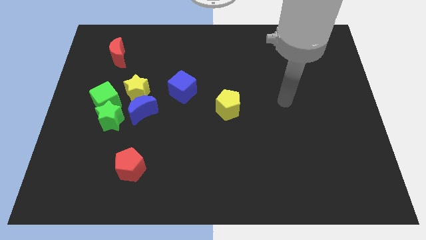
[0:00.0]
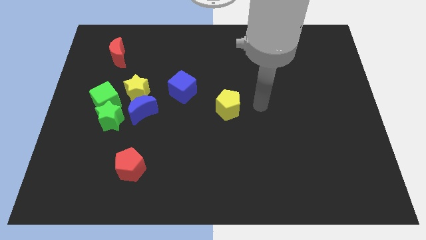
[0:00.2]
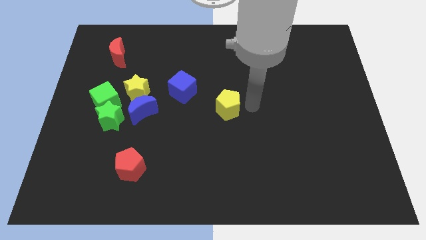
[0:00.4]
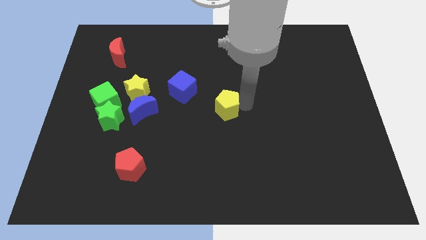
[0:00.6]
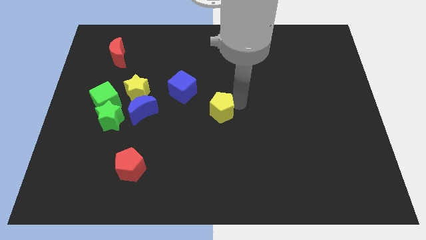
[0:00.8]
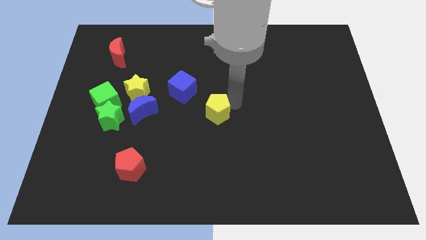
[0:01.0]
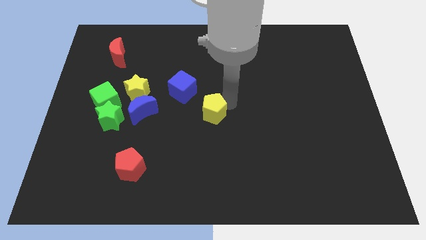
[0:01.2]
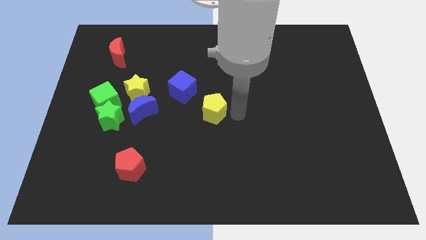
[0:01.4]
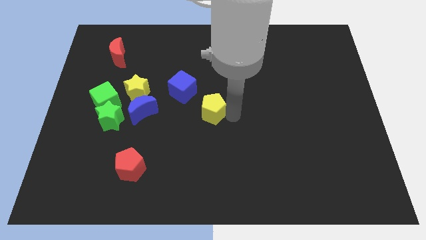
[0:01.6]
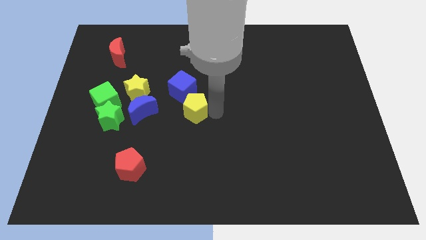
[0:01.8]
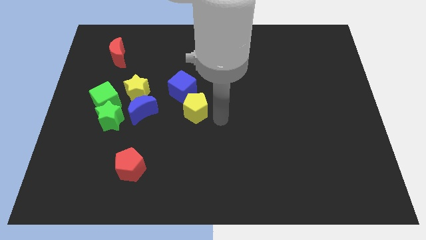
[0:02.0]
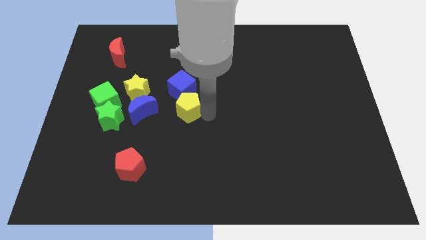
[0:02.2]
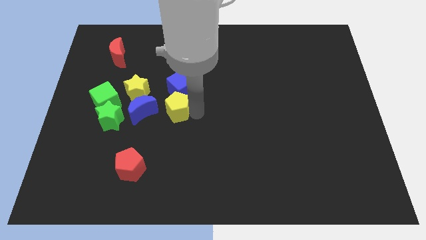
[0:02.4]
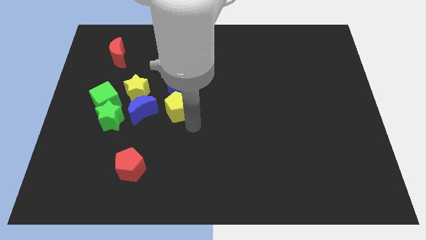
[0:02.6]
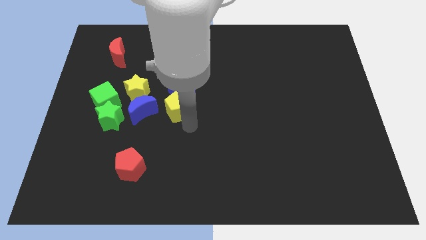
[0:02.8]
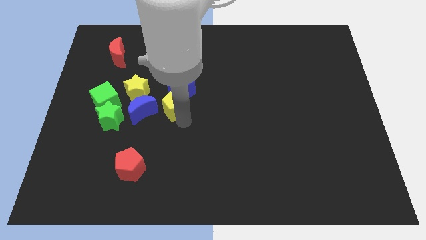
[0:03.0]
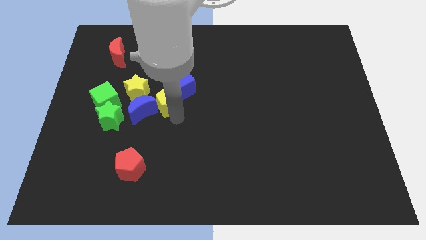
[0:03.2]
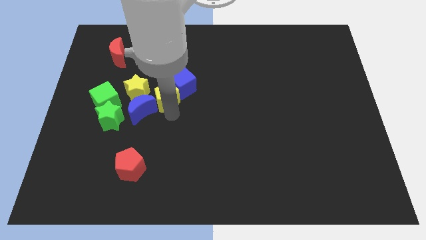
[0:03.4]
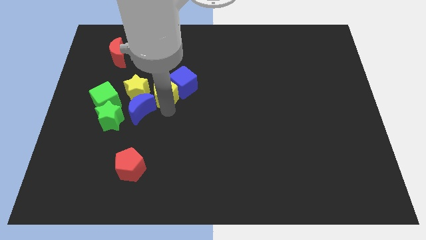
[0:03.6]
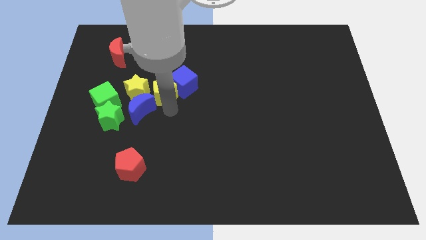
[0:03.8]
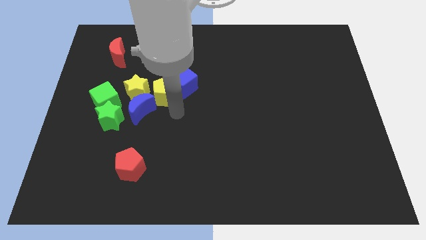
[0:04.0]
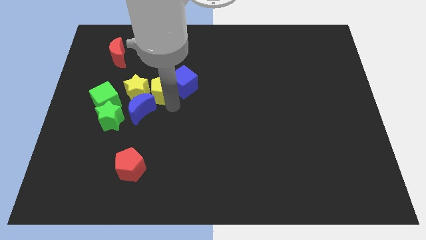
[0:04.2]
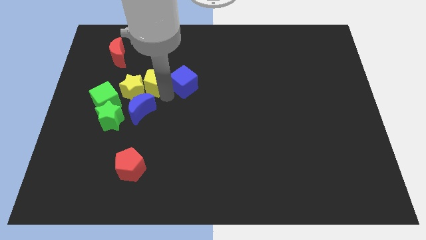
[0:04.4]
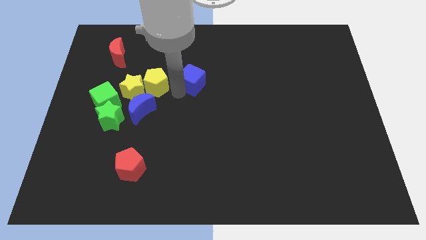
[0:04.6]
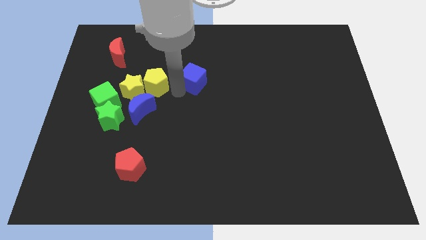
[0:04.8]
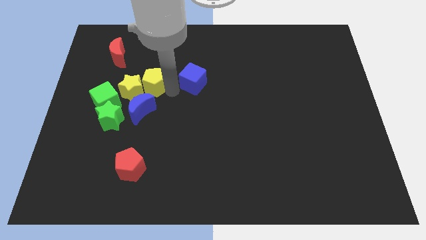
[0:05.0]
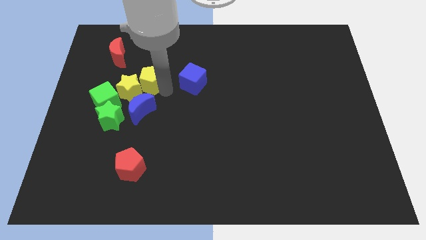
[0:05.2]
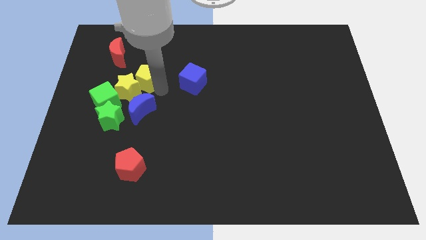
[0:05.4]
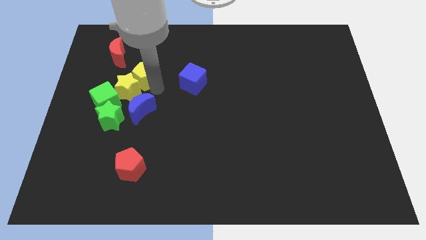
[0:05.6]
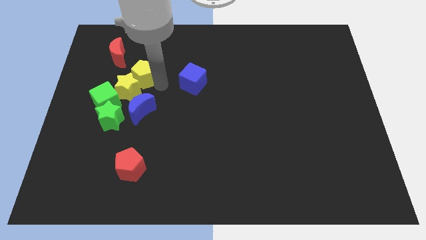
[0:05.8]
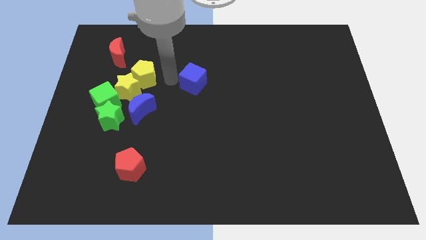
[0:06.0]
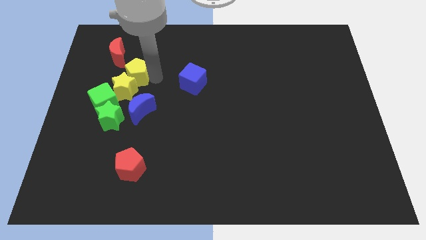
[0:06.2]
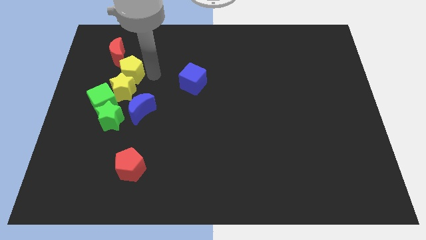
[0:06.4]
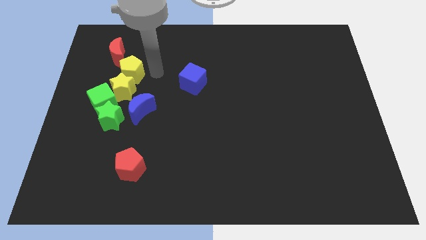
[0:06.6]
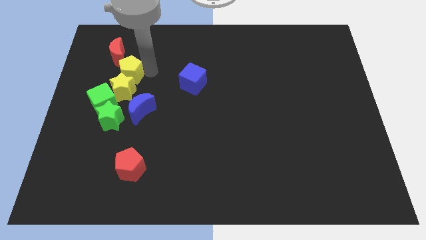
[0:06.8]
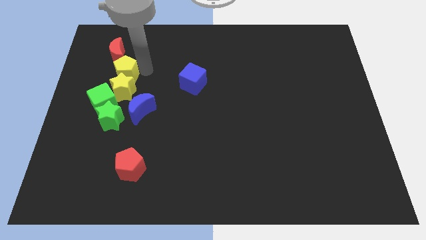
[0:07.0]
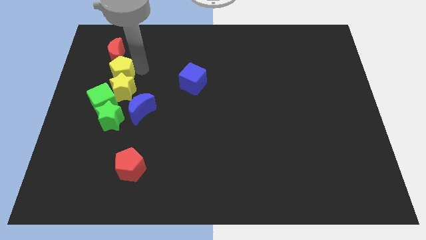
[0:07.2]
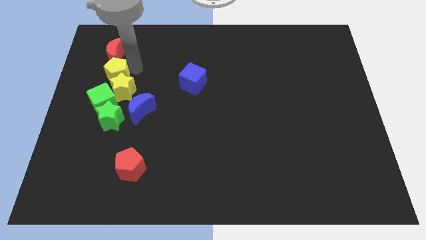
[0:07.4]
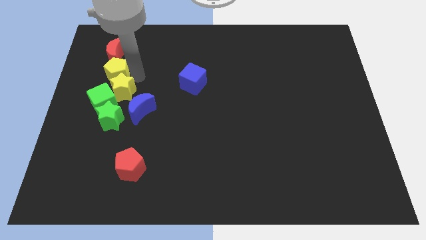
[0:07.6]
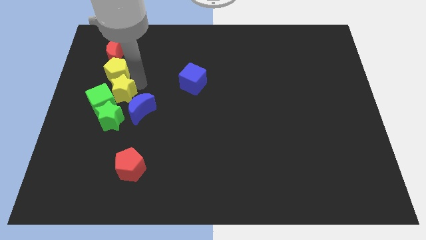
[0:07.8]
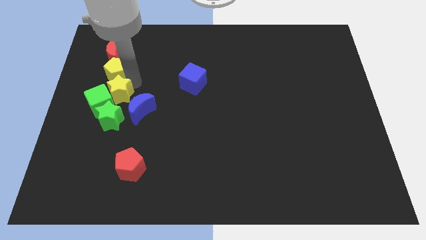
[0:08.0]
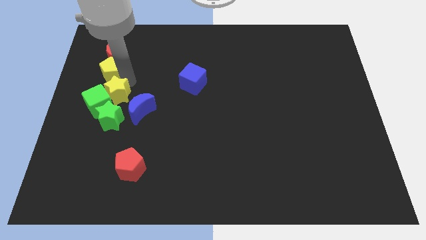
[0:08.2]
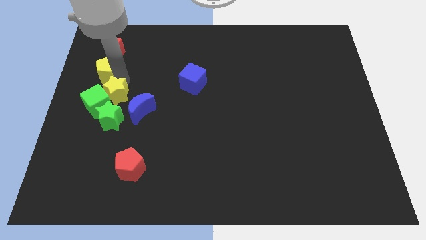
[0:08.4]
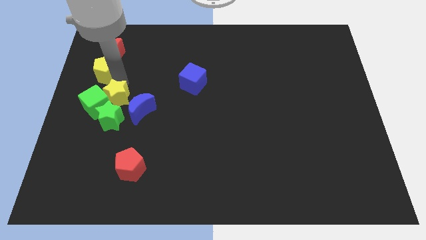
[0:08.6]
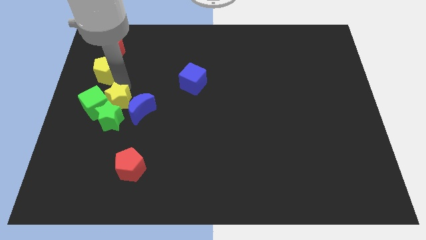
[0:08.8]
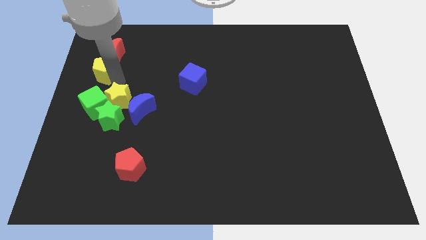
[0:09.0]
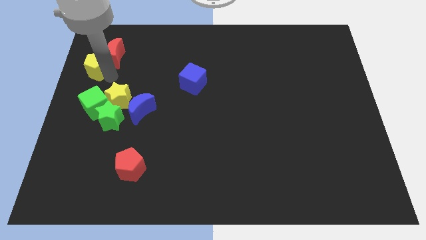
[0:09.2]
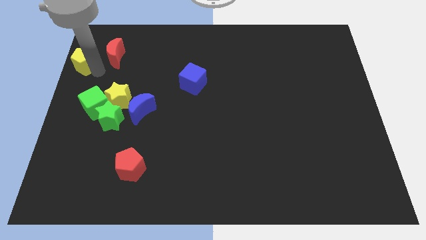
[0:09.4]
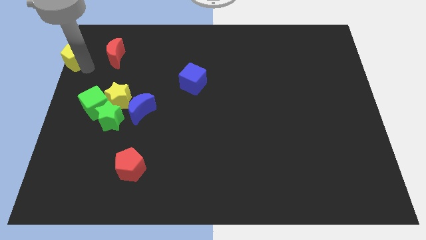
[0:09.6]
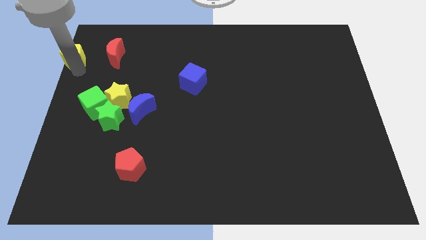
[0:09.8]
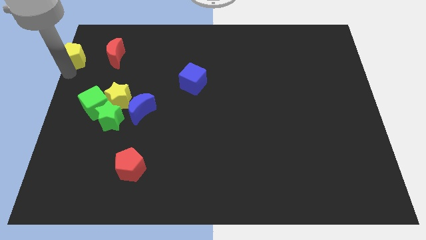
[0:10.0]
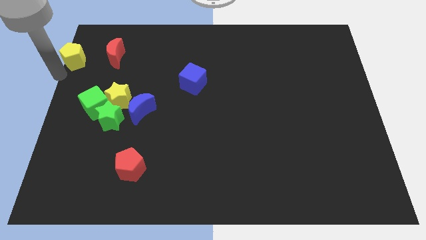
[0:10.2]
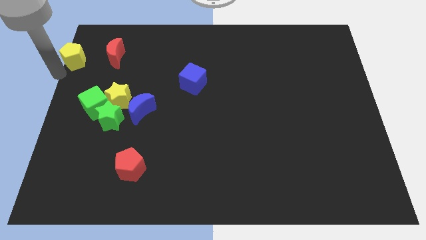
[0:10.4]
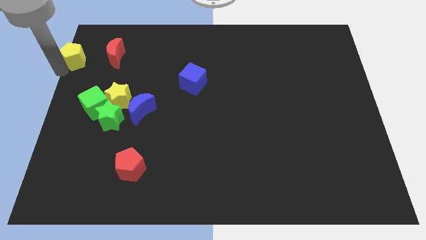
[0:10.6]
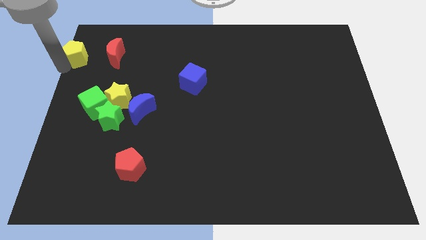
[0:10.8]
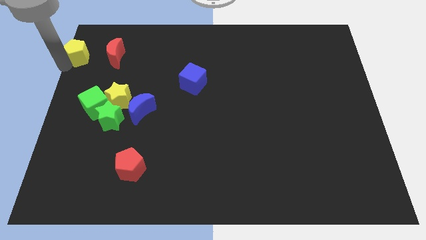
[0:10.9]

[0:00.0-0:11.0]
slide the yellow pentagon to the top left corner

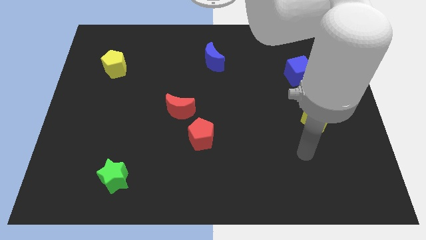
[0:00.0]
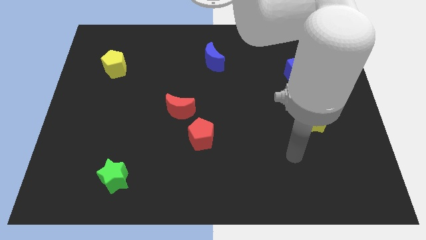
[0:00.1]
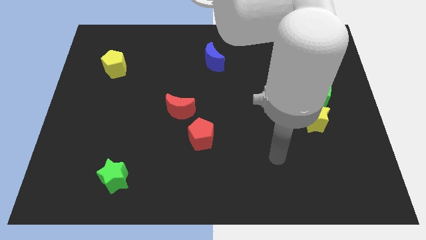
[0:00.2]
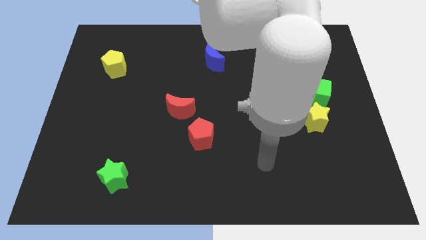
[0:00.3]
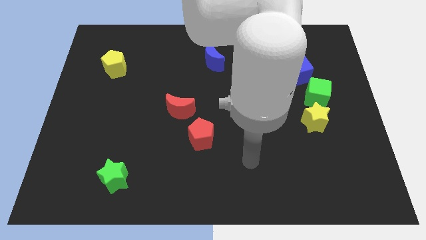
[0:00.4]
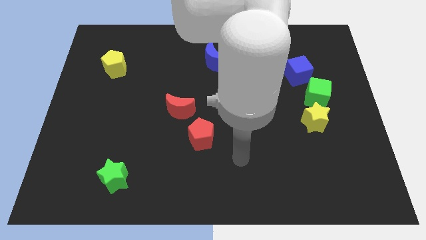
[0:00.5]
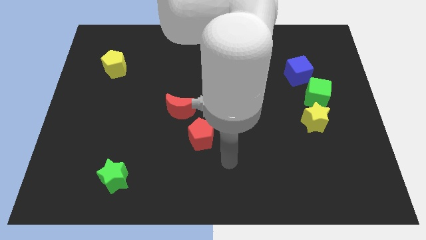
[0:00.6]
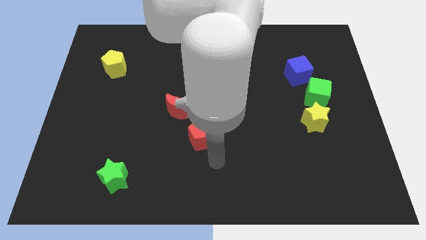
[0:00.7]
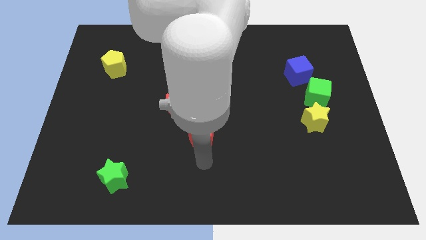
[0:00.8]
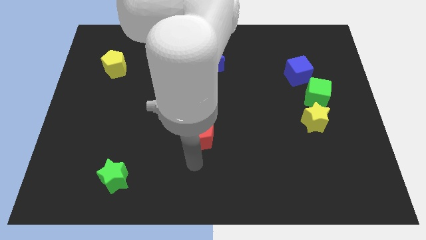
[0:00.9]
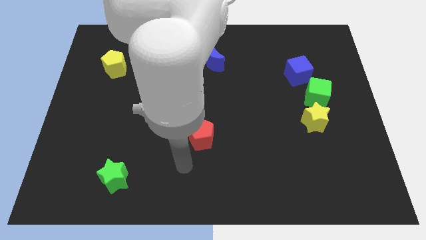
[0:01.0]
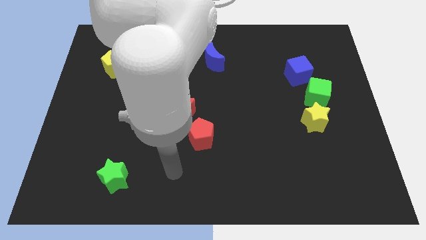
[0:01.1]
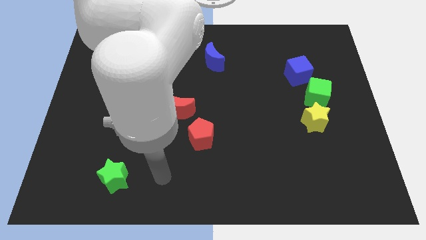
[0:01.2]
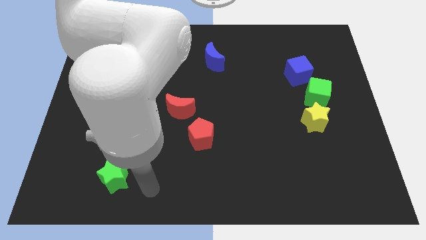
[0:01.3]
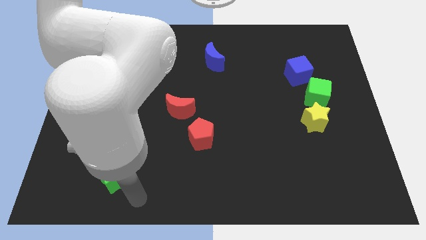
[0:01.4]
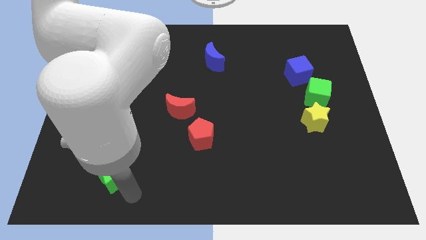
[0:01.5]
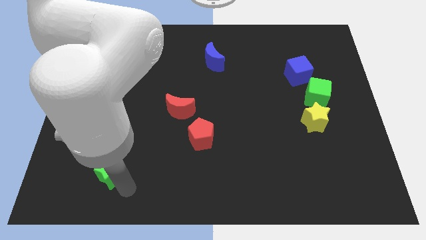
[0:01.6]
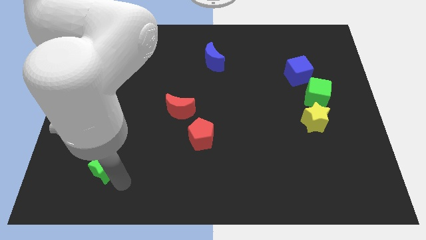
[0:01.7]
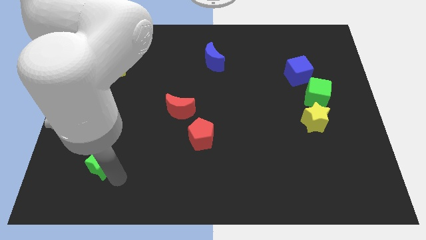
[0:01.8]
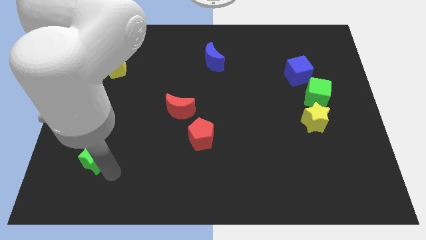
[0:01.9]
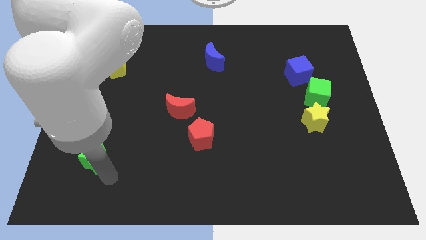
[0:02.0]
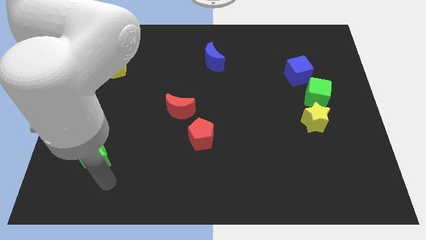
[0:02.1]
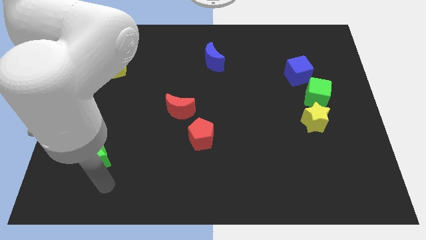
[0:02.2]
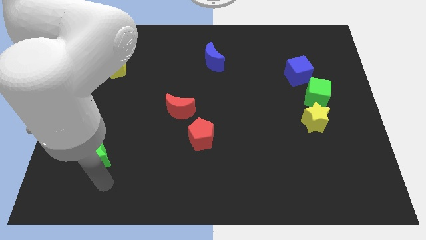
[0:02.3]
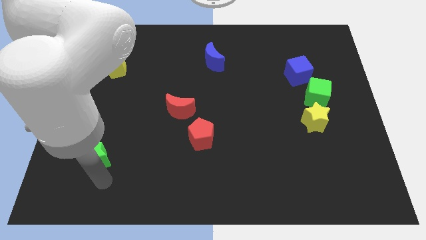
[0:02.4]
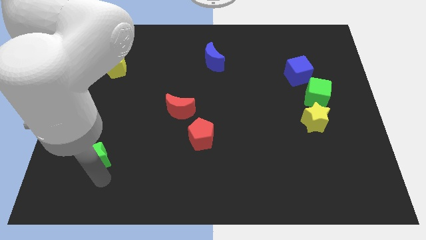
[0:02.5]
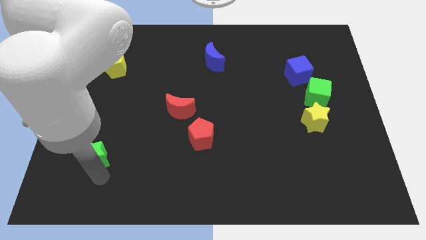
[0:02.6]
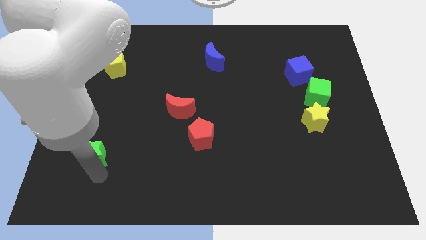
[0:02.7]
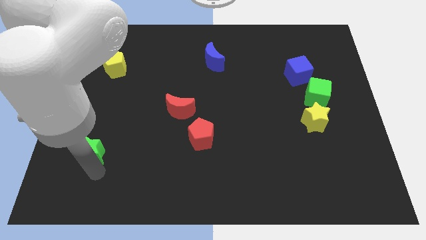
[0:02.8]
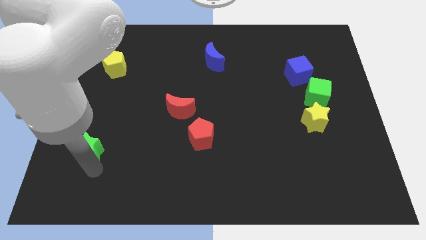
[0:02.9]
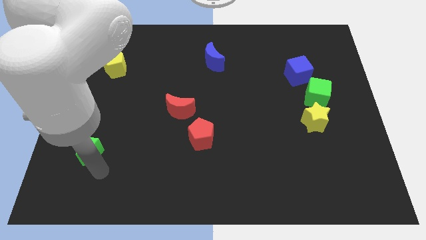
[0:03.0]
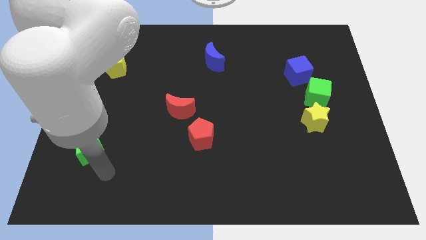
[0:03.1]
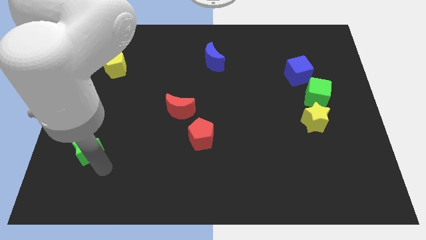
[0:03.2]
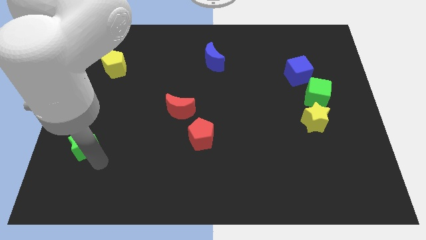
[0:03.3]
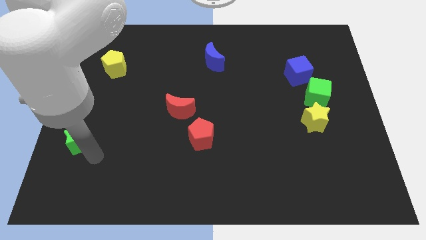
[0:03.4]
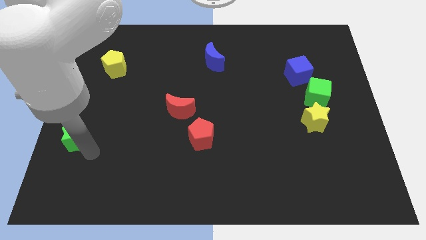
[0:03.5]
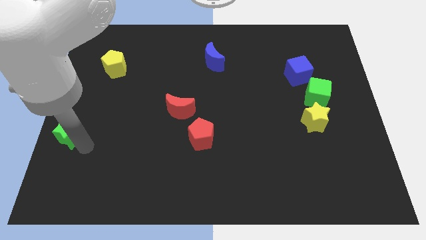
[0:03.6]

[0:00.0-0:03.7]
put the green star to the left side of the board
